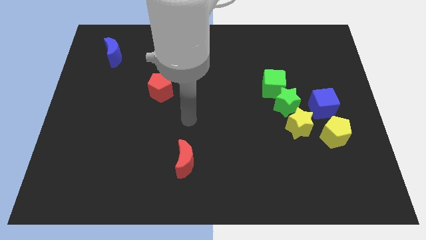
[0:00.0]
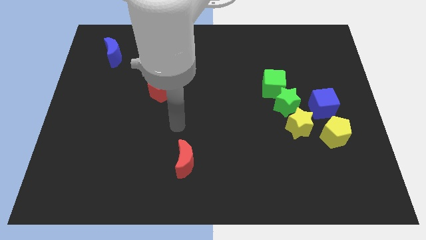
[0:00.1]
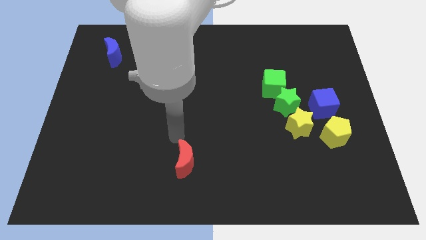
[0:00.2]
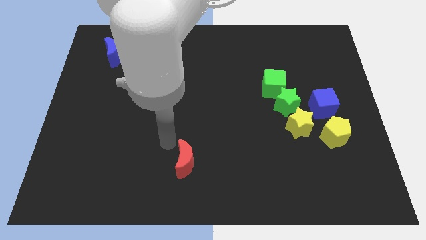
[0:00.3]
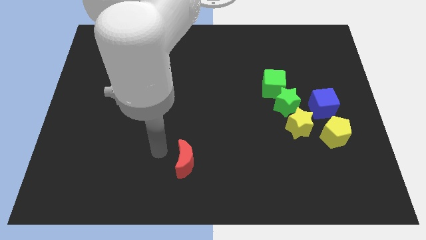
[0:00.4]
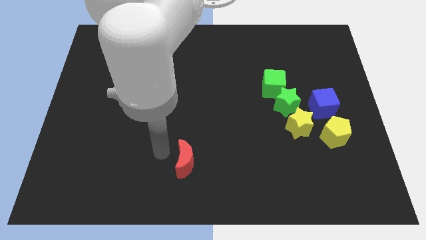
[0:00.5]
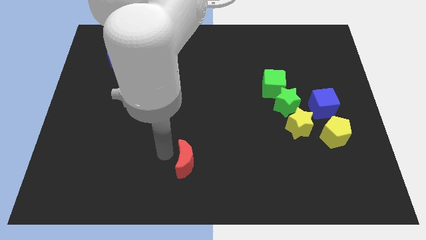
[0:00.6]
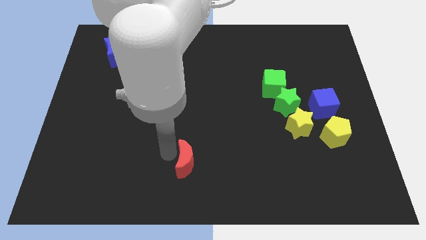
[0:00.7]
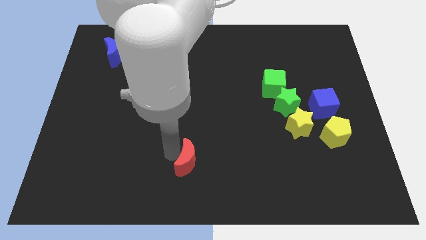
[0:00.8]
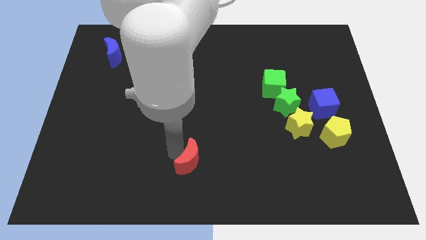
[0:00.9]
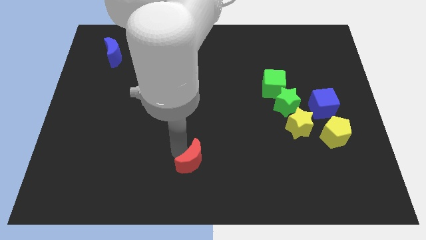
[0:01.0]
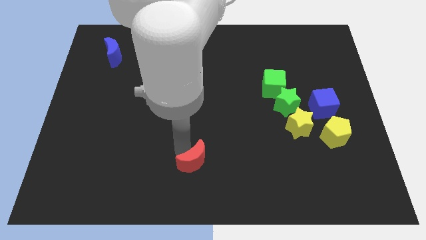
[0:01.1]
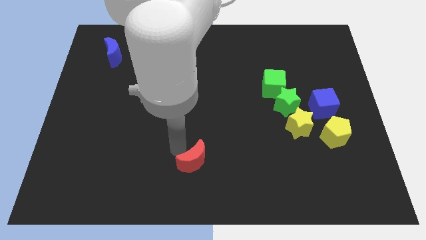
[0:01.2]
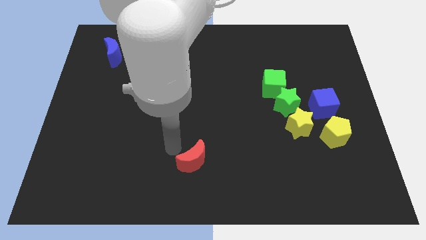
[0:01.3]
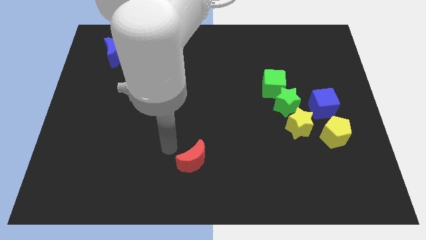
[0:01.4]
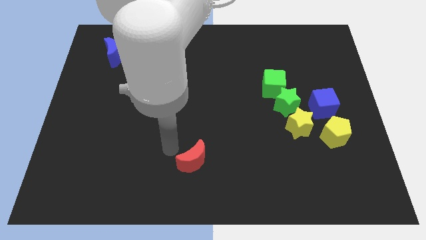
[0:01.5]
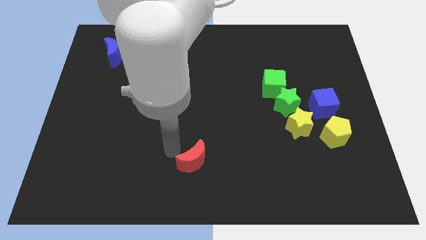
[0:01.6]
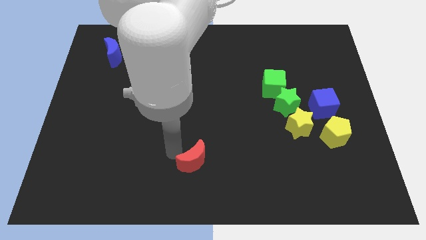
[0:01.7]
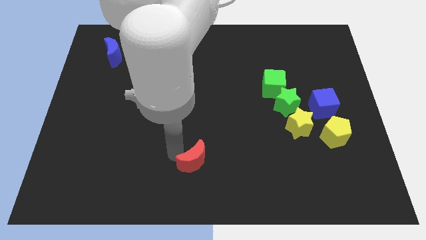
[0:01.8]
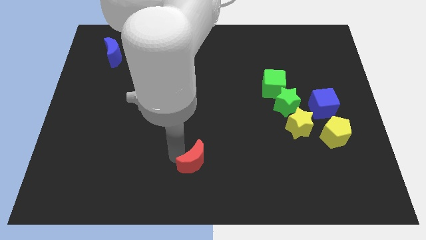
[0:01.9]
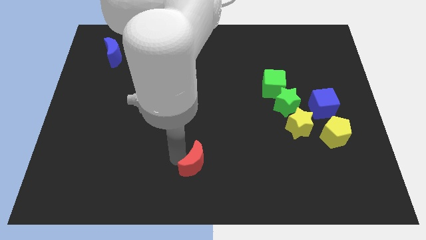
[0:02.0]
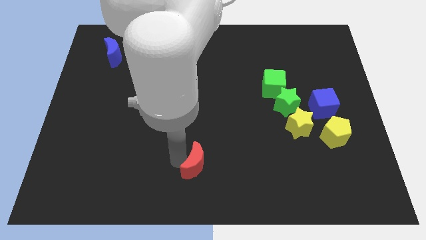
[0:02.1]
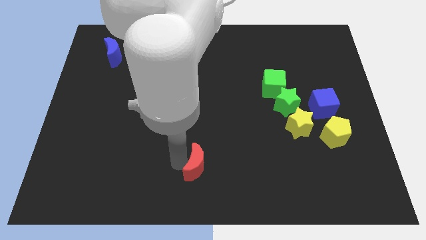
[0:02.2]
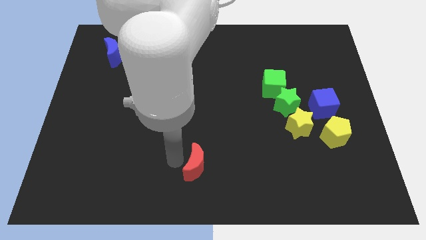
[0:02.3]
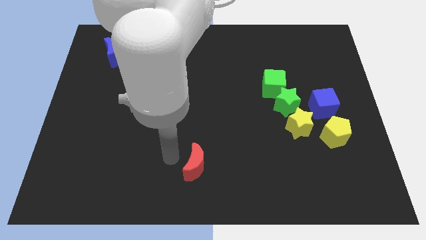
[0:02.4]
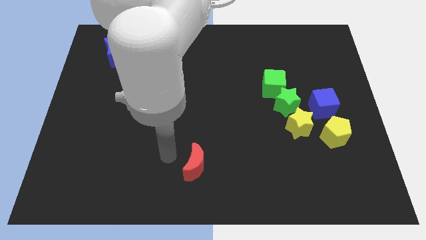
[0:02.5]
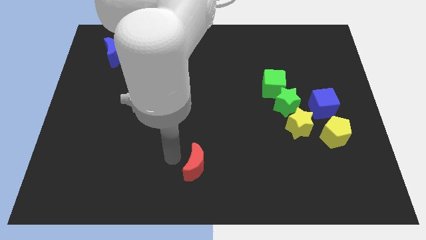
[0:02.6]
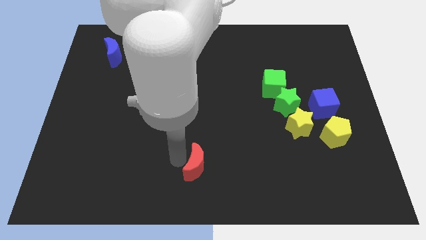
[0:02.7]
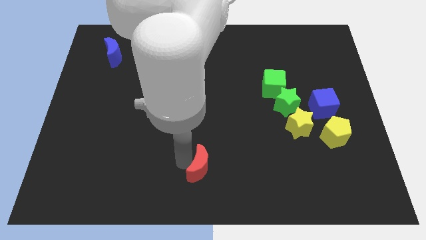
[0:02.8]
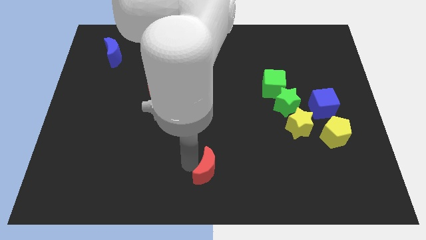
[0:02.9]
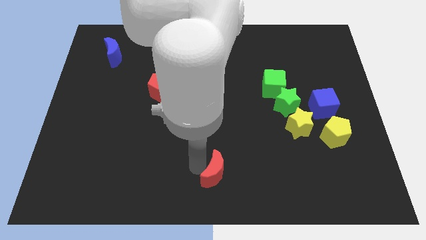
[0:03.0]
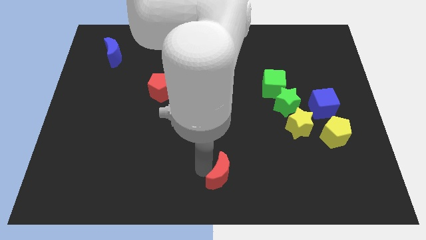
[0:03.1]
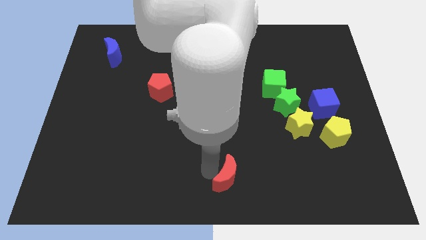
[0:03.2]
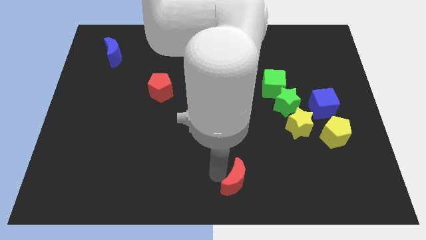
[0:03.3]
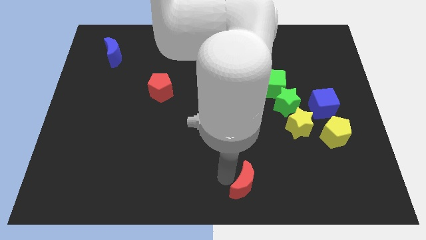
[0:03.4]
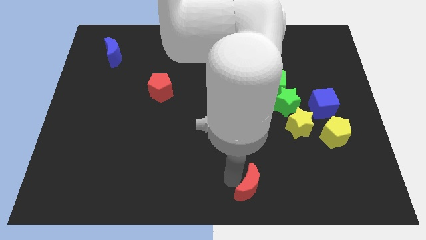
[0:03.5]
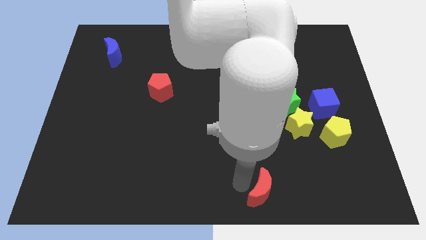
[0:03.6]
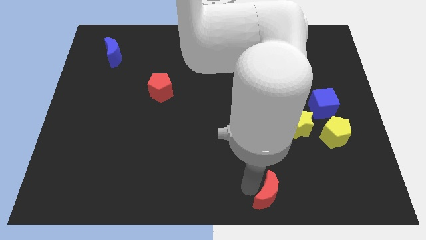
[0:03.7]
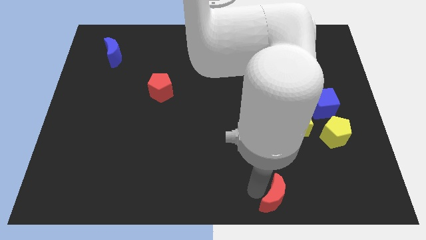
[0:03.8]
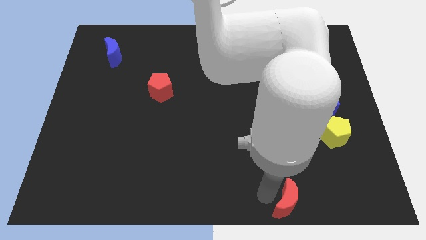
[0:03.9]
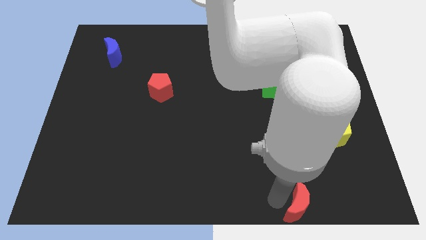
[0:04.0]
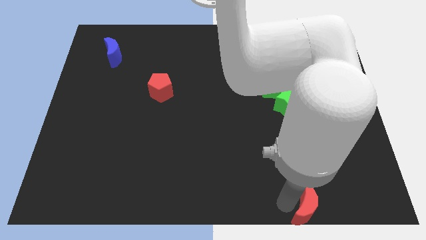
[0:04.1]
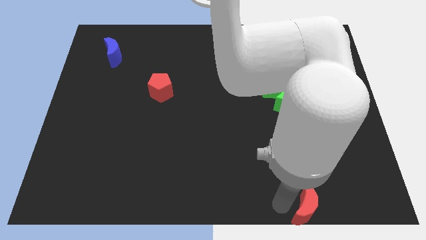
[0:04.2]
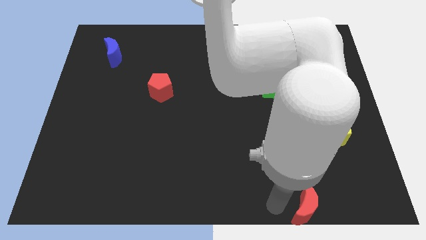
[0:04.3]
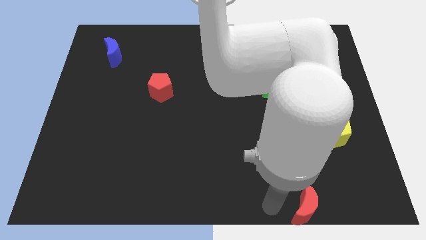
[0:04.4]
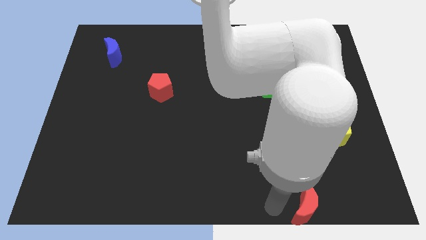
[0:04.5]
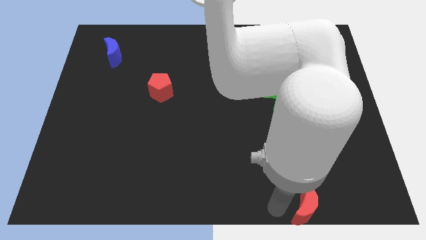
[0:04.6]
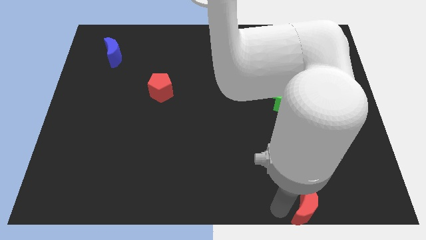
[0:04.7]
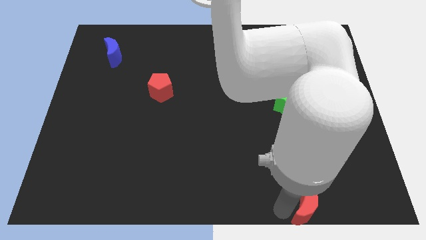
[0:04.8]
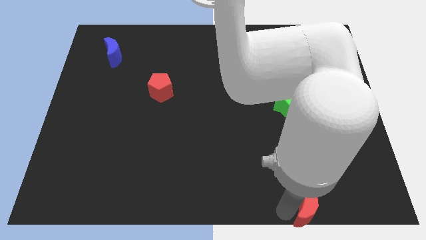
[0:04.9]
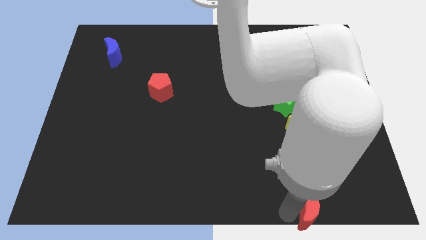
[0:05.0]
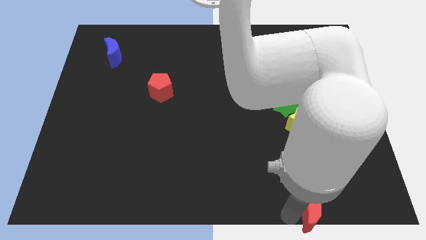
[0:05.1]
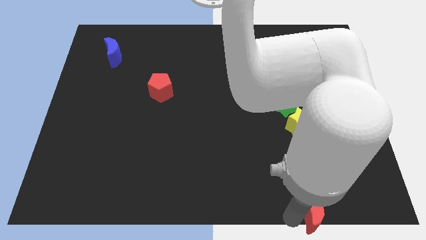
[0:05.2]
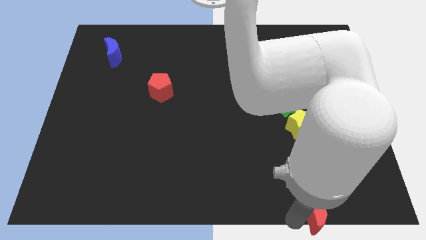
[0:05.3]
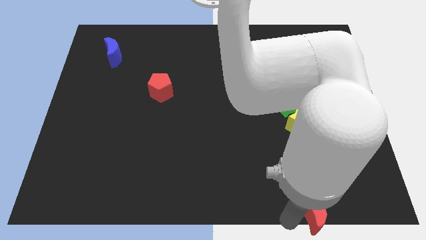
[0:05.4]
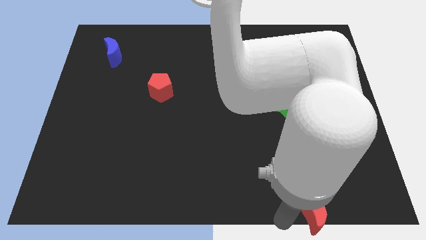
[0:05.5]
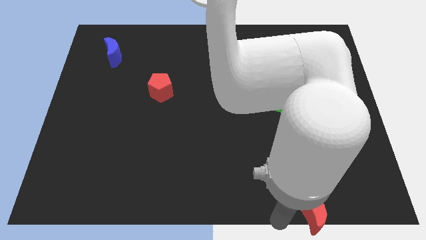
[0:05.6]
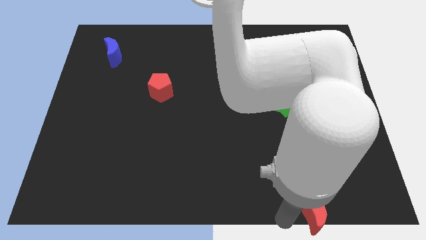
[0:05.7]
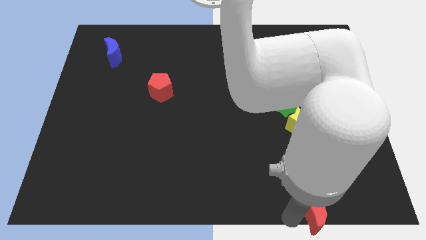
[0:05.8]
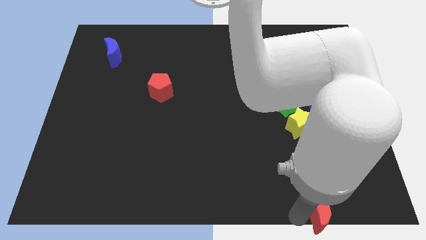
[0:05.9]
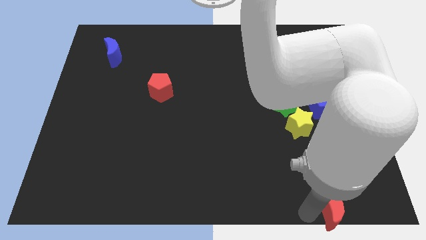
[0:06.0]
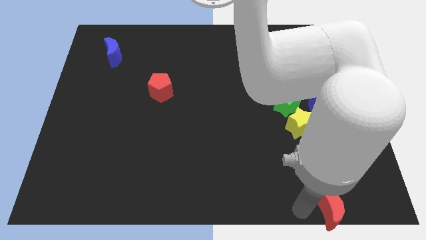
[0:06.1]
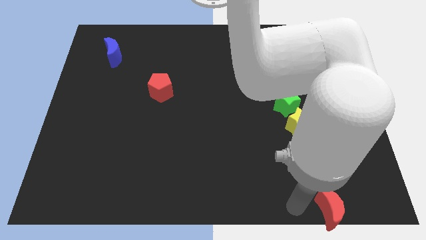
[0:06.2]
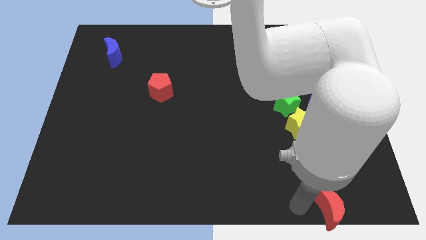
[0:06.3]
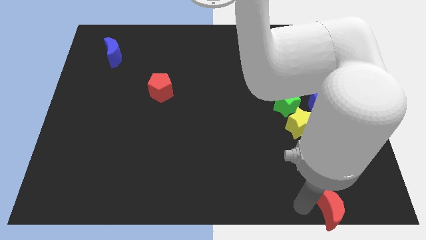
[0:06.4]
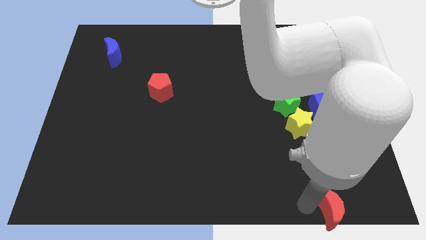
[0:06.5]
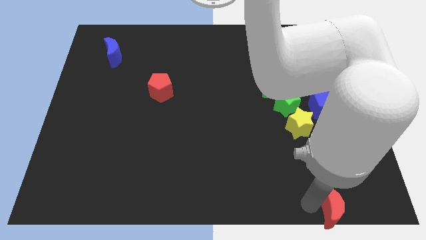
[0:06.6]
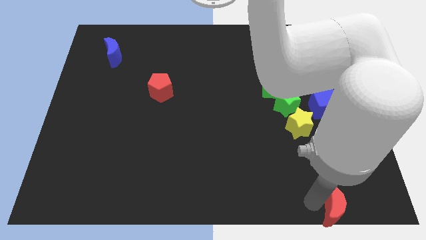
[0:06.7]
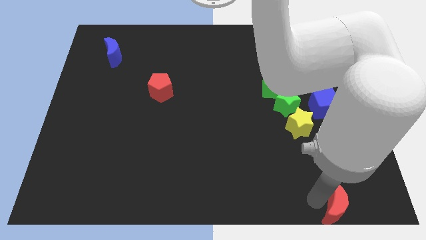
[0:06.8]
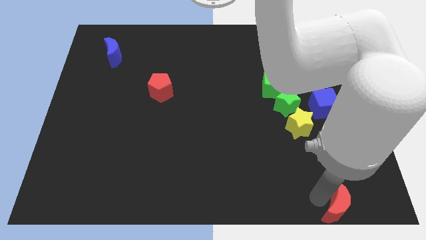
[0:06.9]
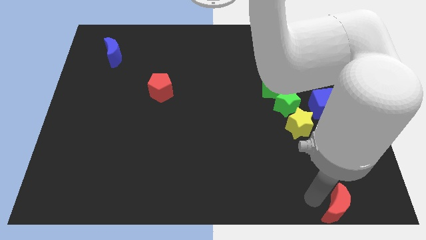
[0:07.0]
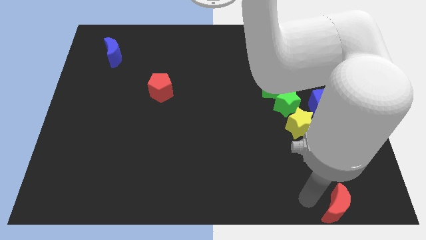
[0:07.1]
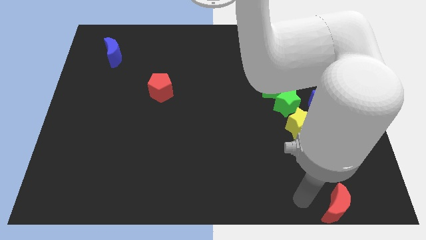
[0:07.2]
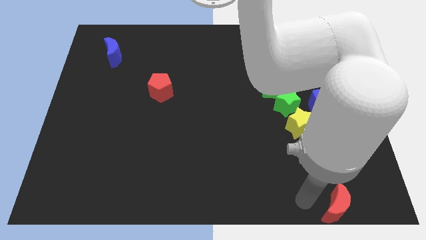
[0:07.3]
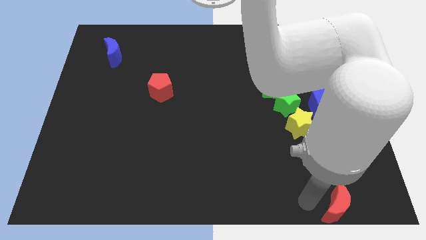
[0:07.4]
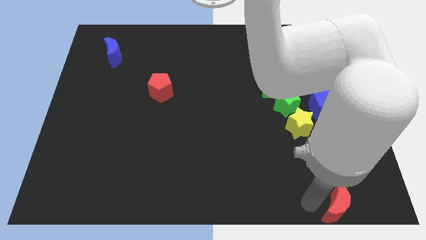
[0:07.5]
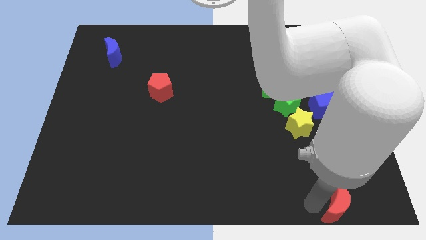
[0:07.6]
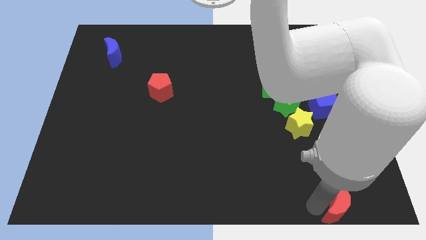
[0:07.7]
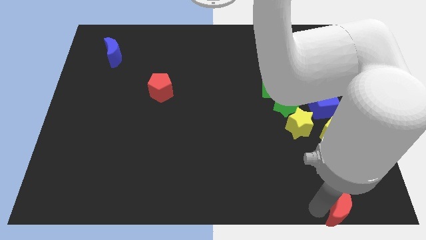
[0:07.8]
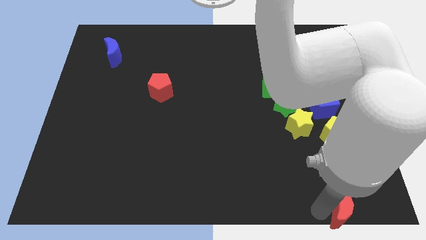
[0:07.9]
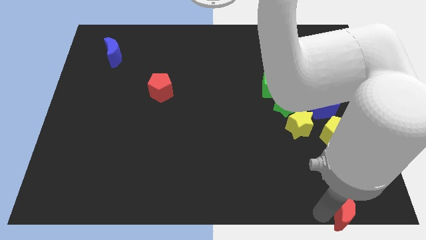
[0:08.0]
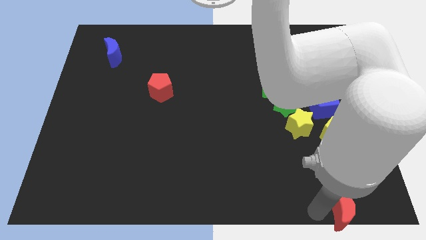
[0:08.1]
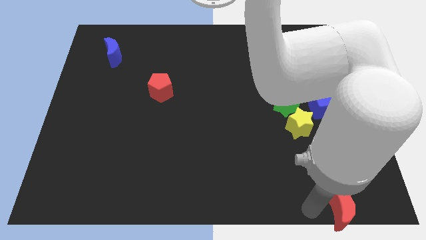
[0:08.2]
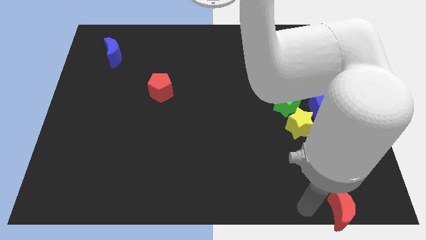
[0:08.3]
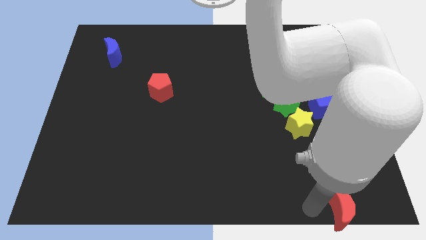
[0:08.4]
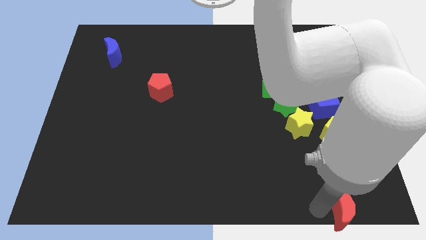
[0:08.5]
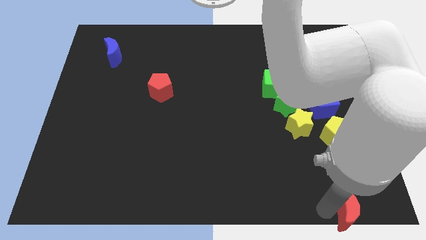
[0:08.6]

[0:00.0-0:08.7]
move the red moon to the bottom right
